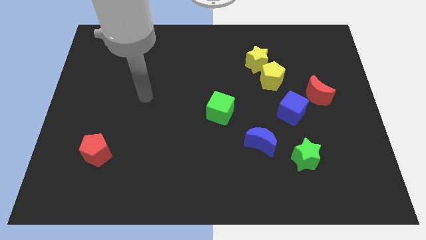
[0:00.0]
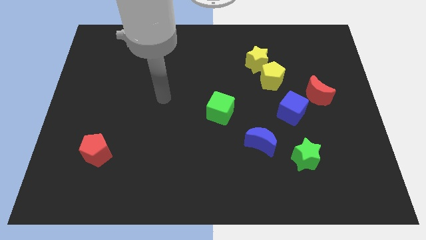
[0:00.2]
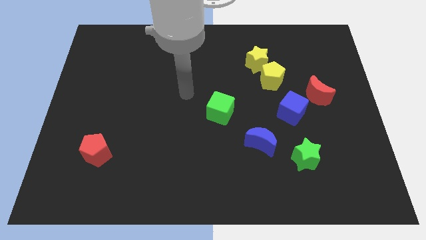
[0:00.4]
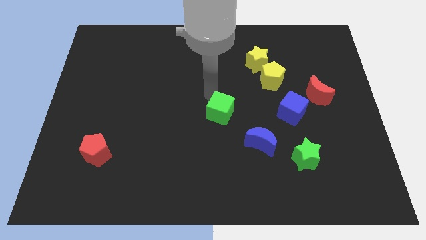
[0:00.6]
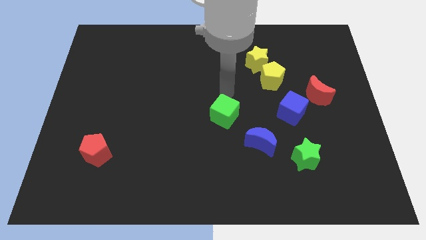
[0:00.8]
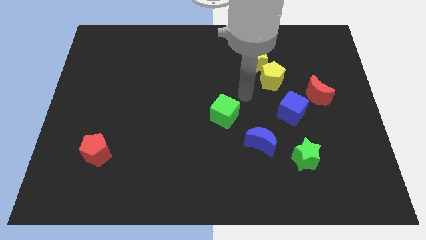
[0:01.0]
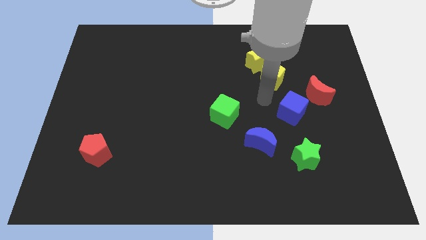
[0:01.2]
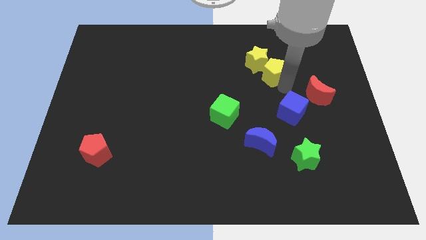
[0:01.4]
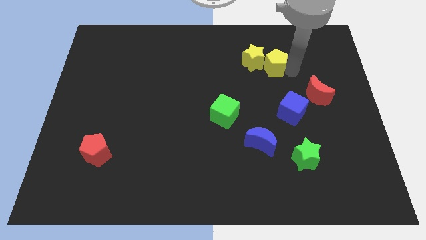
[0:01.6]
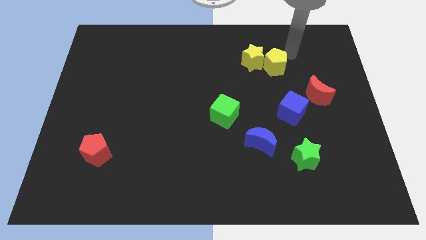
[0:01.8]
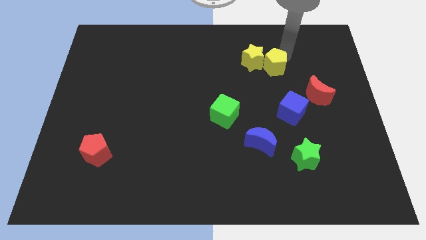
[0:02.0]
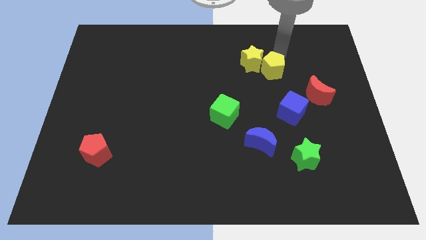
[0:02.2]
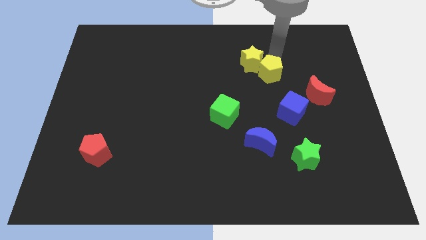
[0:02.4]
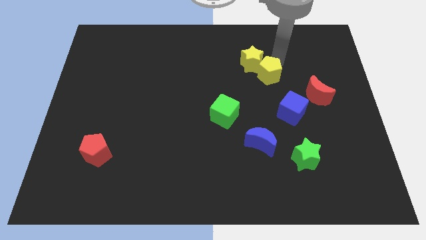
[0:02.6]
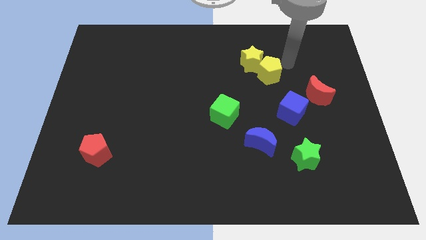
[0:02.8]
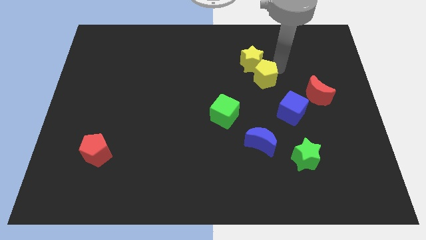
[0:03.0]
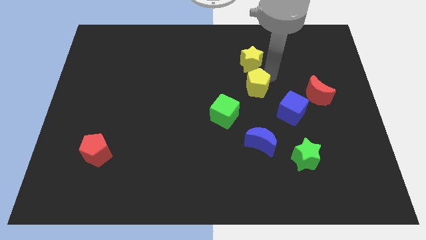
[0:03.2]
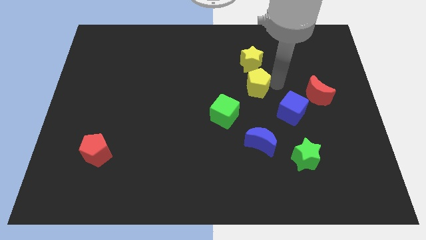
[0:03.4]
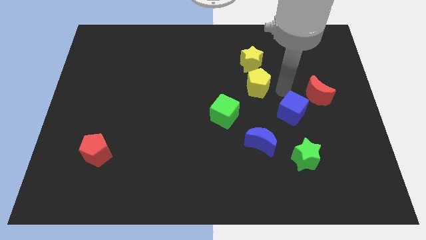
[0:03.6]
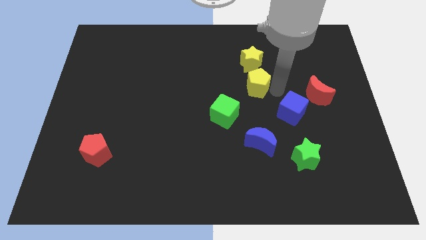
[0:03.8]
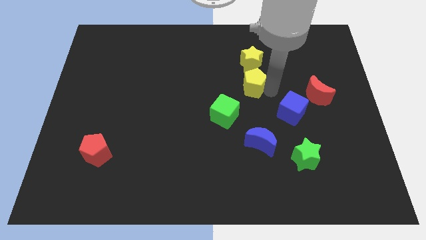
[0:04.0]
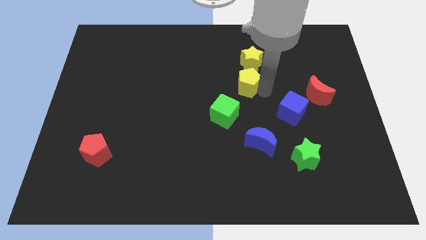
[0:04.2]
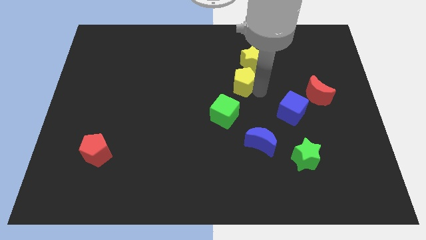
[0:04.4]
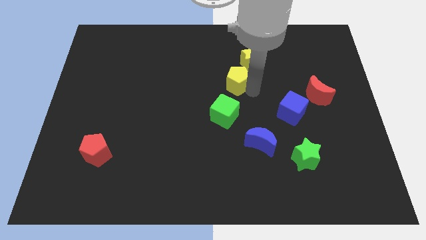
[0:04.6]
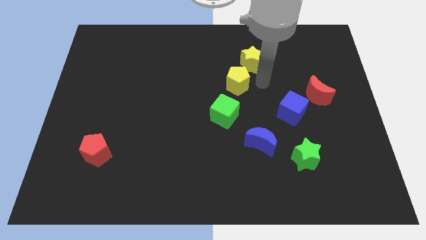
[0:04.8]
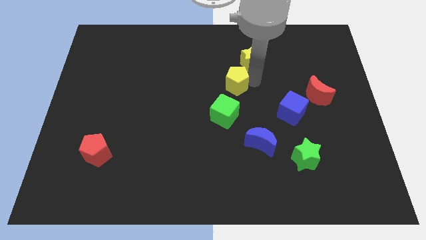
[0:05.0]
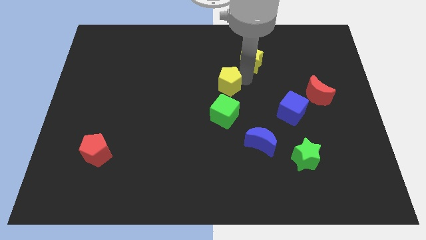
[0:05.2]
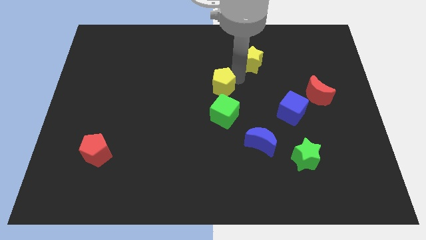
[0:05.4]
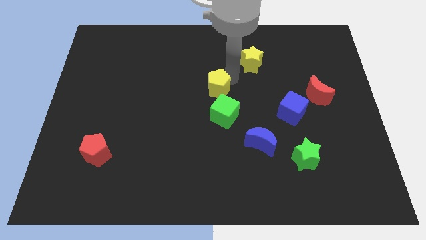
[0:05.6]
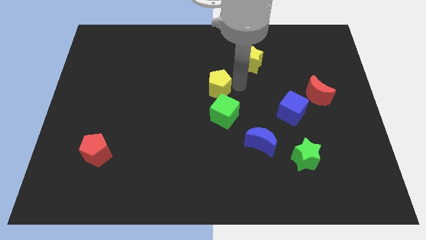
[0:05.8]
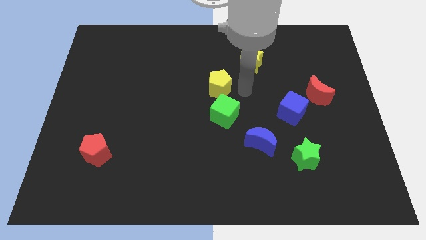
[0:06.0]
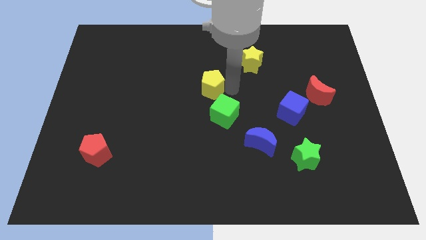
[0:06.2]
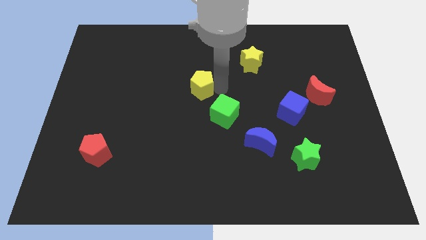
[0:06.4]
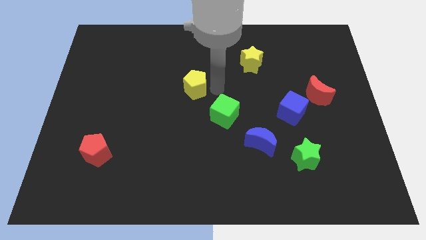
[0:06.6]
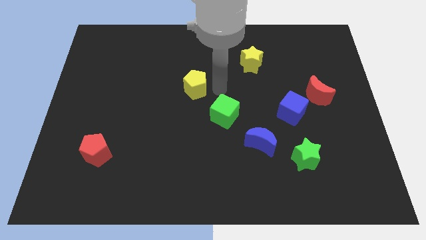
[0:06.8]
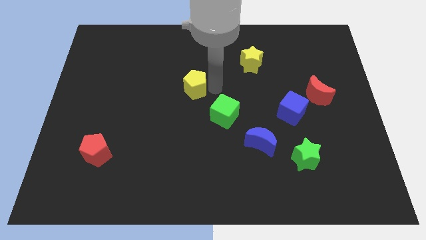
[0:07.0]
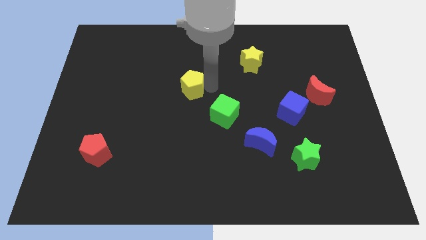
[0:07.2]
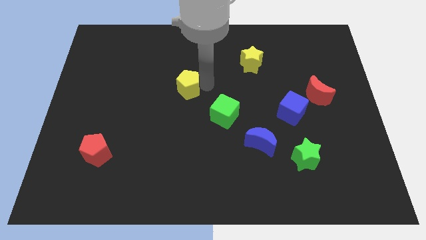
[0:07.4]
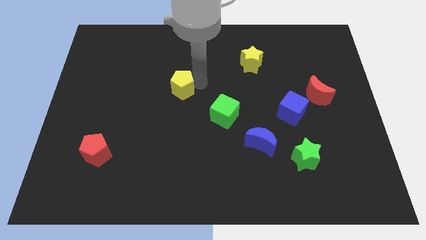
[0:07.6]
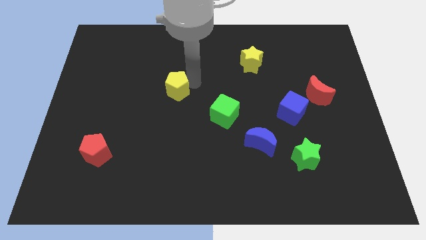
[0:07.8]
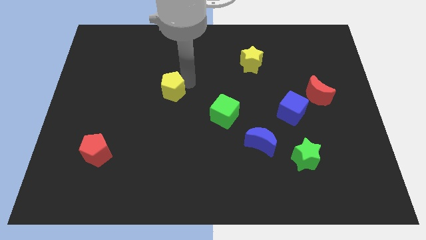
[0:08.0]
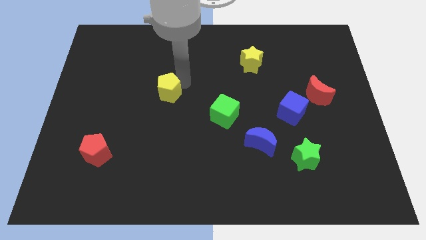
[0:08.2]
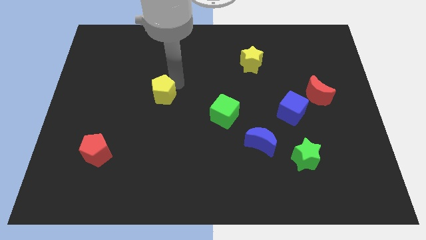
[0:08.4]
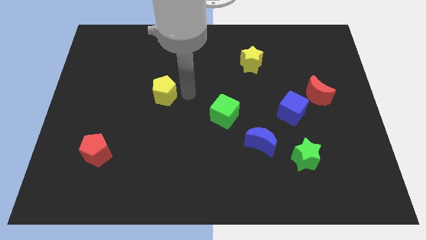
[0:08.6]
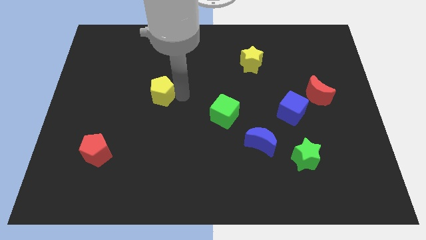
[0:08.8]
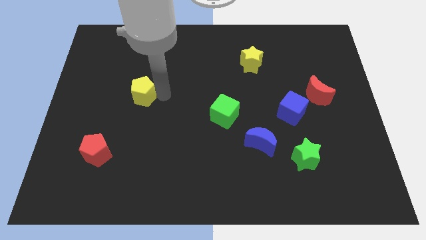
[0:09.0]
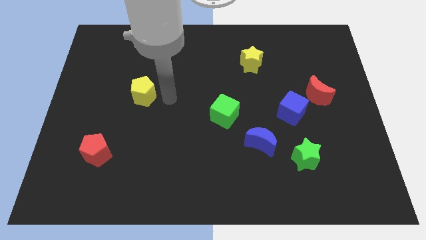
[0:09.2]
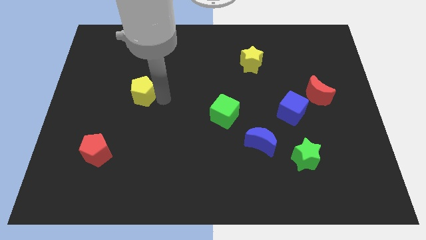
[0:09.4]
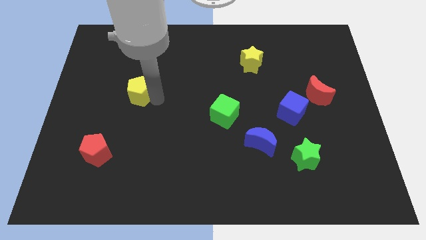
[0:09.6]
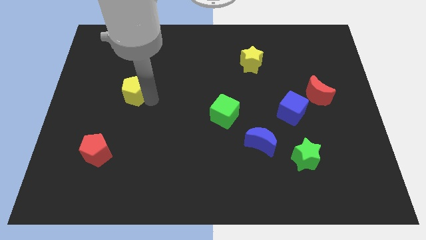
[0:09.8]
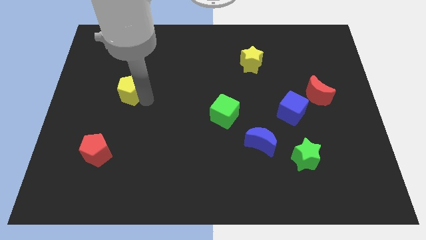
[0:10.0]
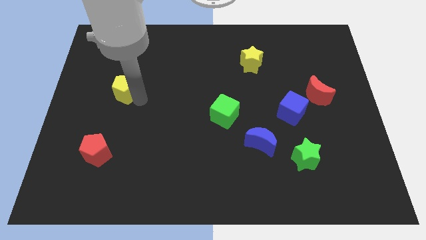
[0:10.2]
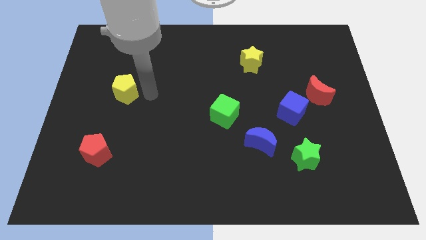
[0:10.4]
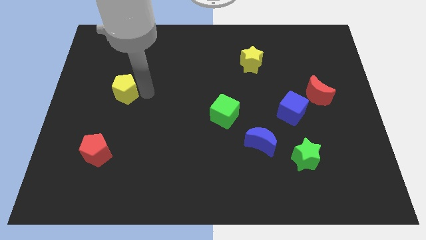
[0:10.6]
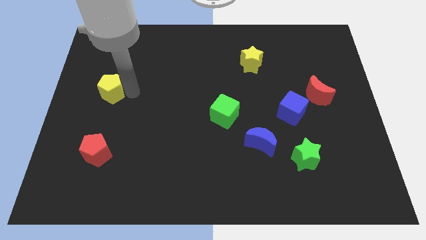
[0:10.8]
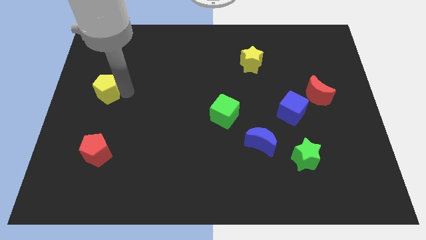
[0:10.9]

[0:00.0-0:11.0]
push the yellow pentagon to the left side of the board
